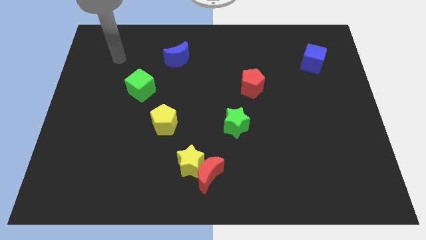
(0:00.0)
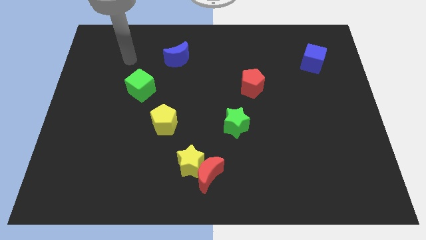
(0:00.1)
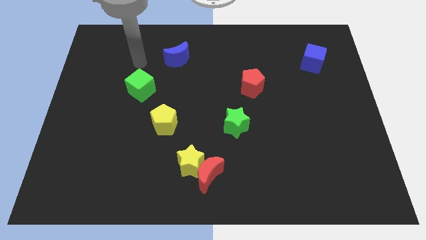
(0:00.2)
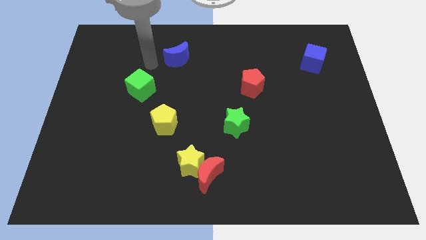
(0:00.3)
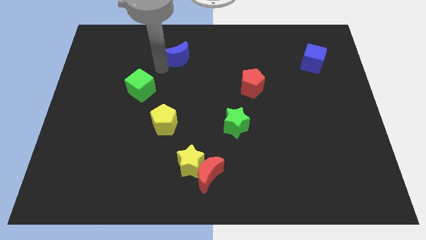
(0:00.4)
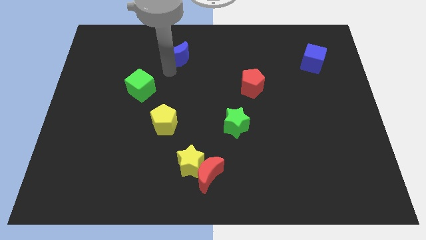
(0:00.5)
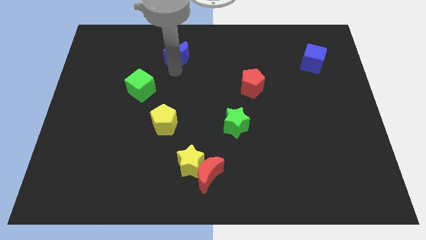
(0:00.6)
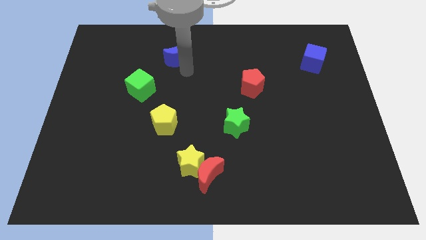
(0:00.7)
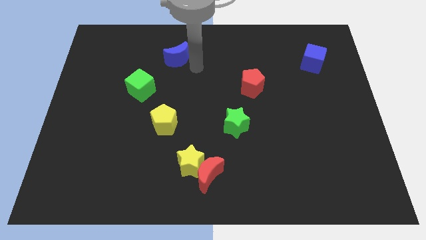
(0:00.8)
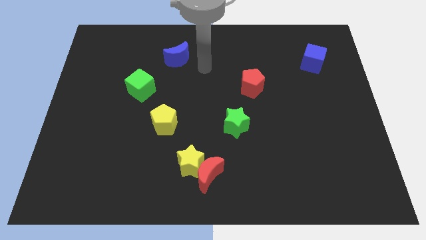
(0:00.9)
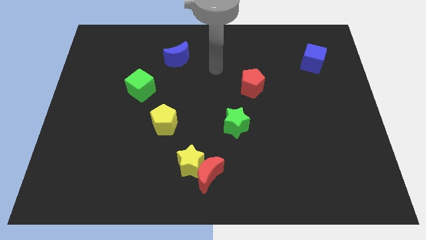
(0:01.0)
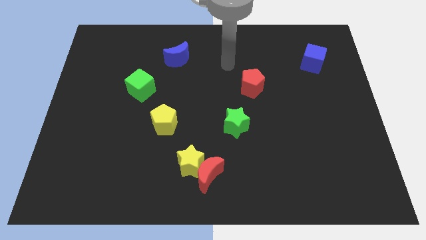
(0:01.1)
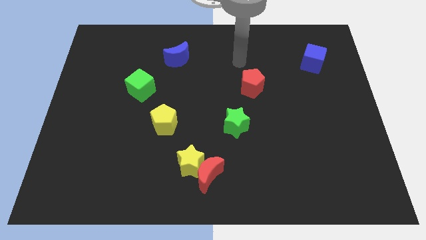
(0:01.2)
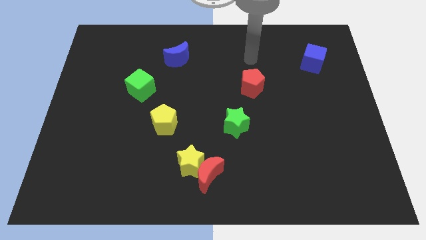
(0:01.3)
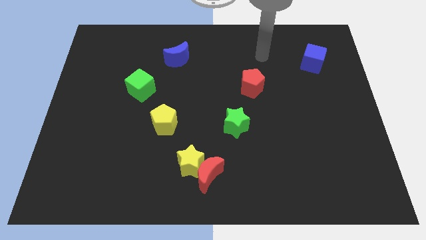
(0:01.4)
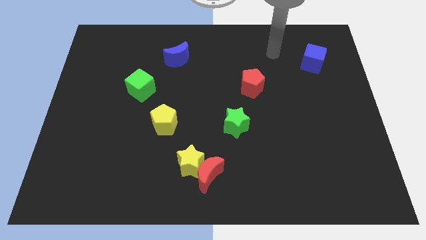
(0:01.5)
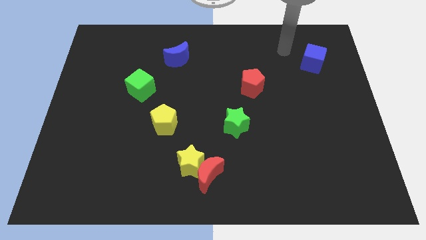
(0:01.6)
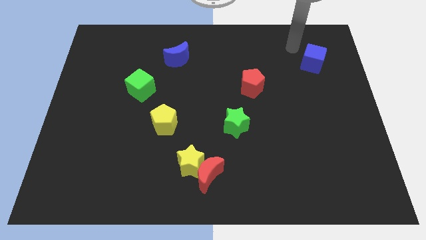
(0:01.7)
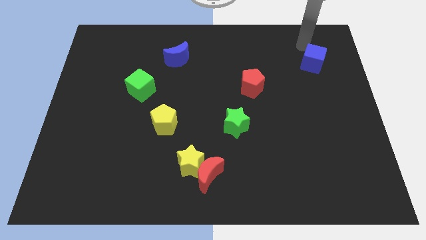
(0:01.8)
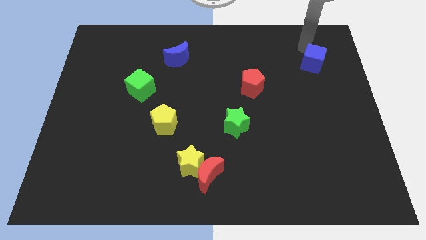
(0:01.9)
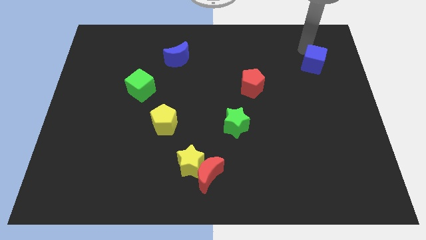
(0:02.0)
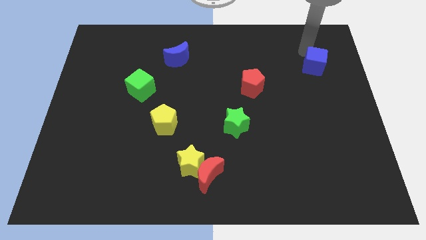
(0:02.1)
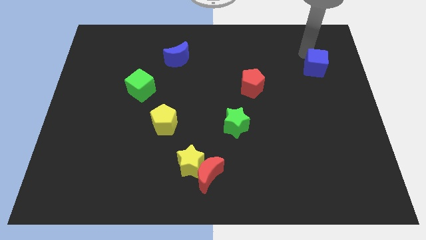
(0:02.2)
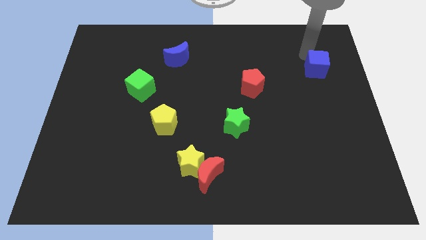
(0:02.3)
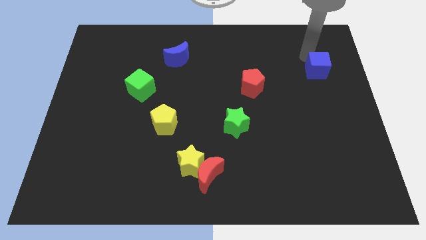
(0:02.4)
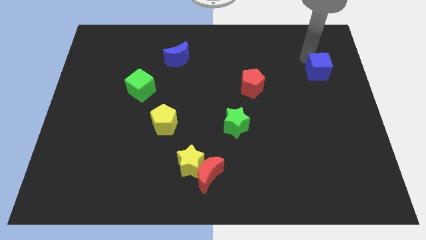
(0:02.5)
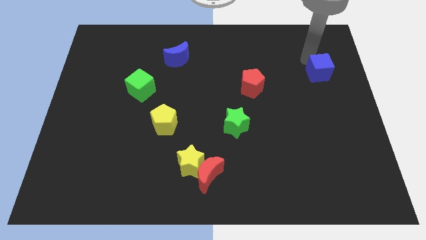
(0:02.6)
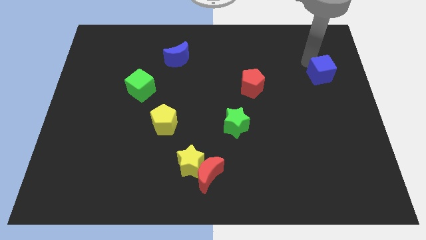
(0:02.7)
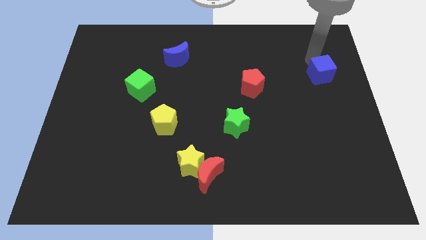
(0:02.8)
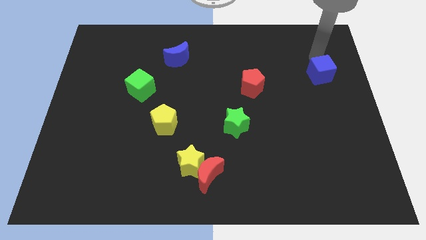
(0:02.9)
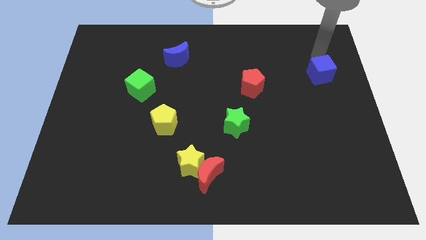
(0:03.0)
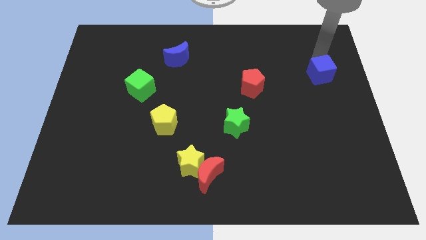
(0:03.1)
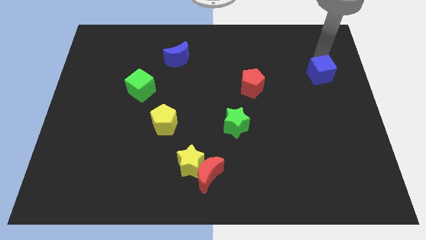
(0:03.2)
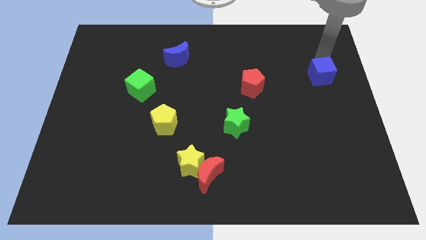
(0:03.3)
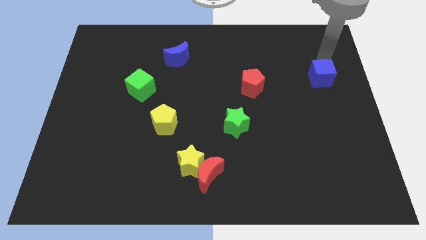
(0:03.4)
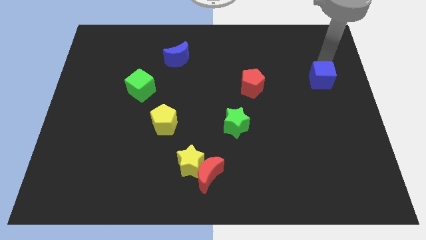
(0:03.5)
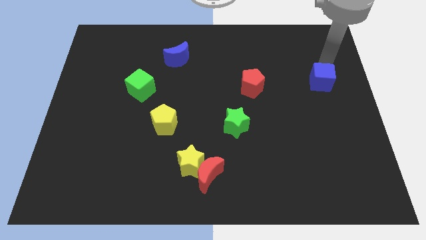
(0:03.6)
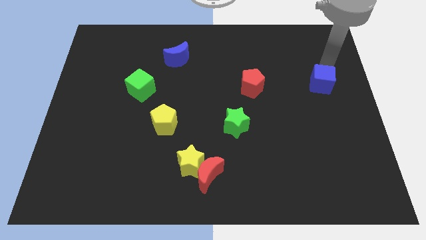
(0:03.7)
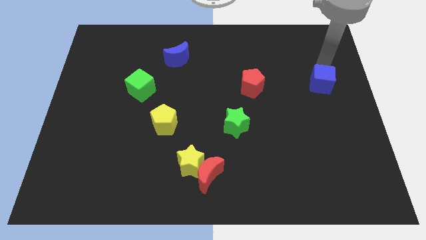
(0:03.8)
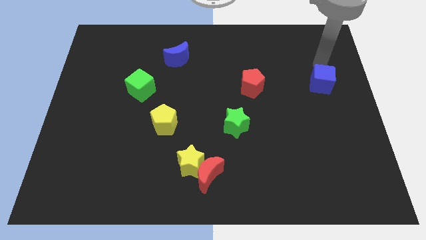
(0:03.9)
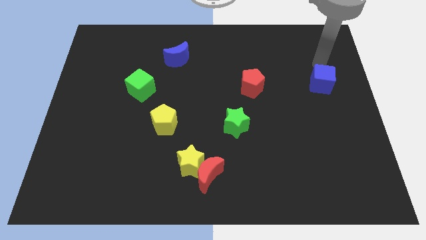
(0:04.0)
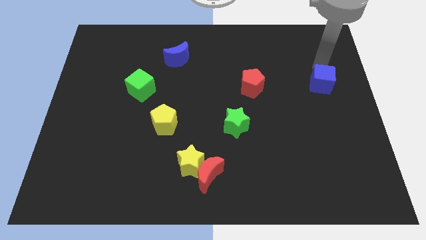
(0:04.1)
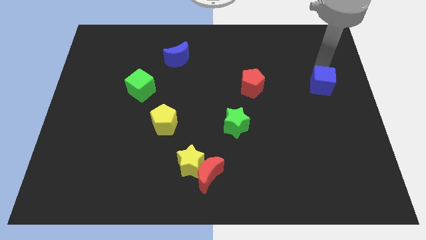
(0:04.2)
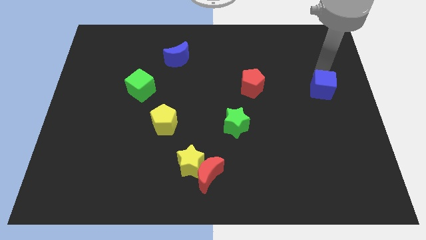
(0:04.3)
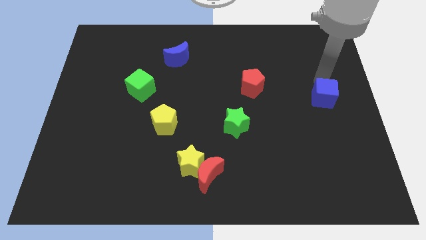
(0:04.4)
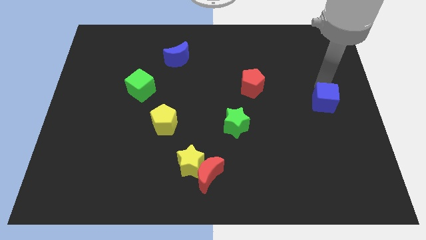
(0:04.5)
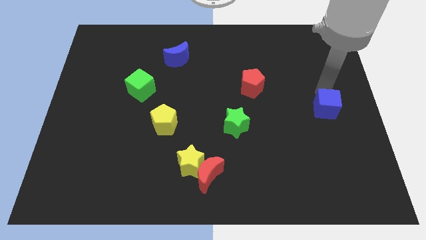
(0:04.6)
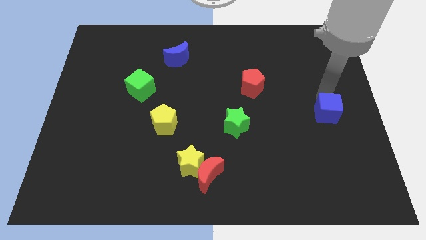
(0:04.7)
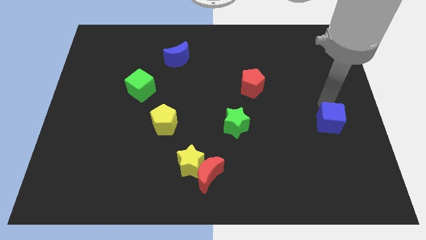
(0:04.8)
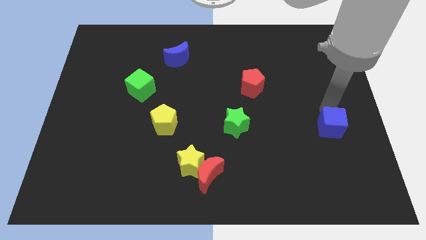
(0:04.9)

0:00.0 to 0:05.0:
move the blue cube down

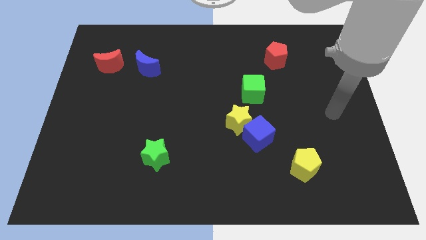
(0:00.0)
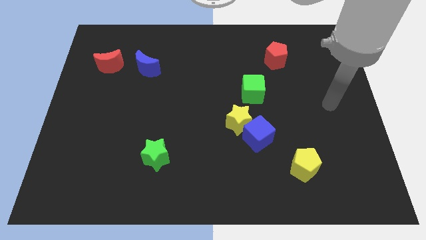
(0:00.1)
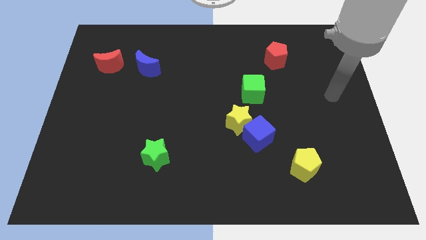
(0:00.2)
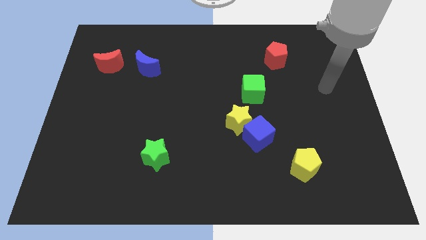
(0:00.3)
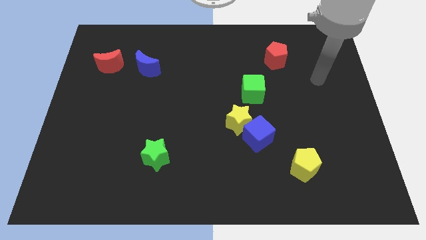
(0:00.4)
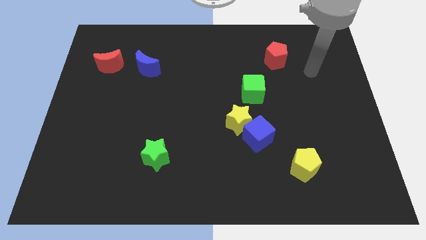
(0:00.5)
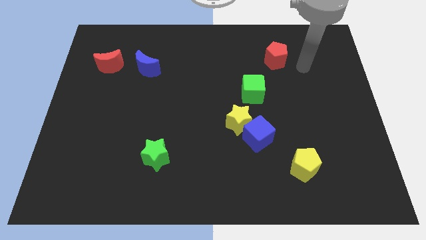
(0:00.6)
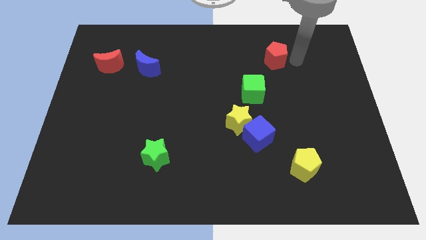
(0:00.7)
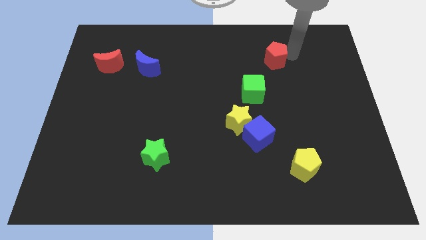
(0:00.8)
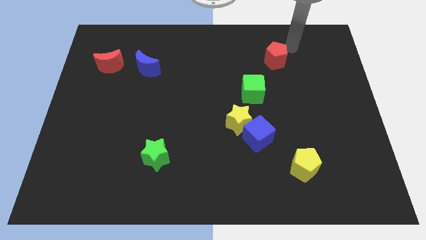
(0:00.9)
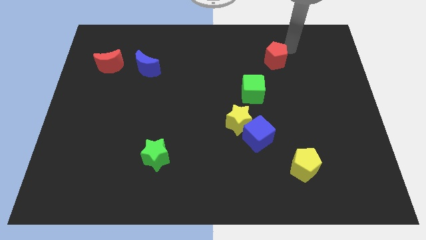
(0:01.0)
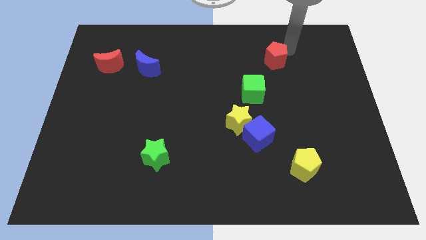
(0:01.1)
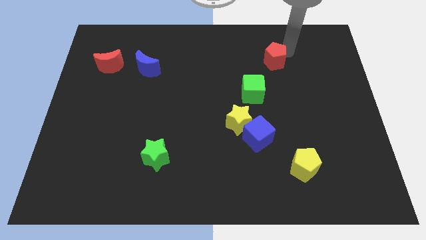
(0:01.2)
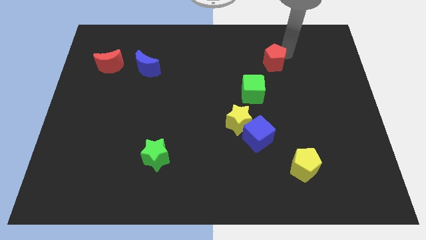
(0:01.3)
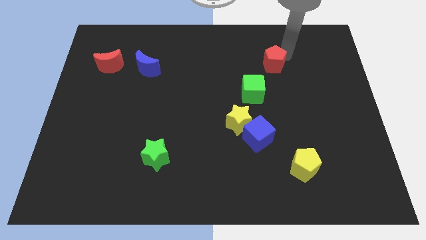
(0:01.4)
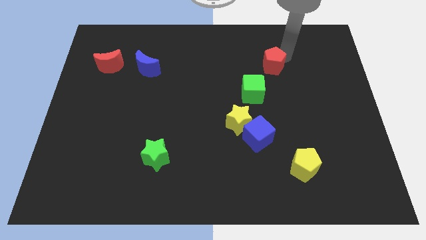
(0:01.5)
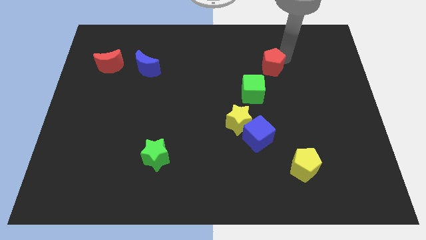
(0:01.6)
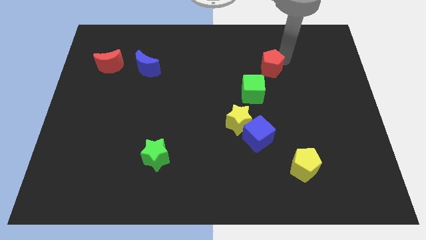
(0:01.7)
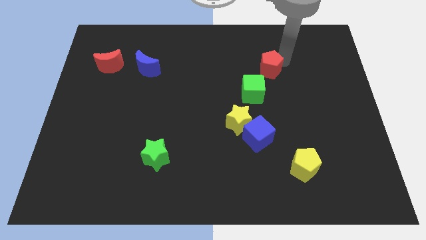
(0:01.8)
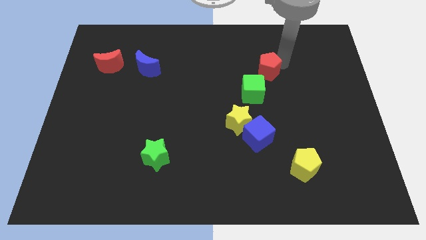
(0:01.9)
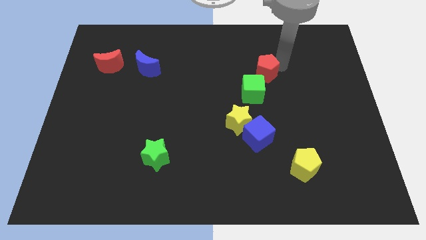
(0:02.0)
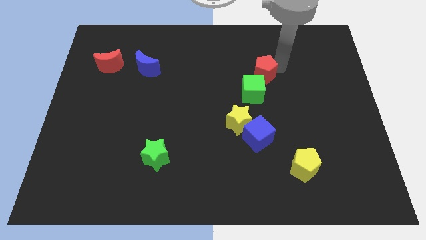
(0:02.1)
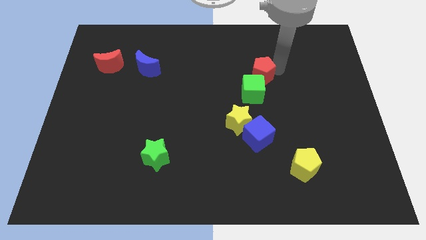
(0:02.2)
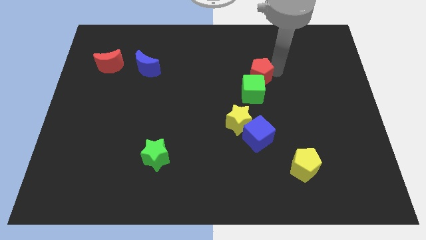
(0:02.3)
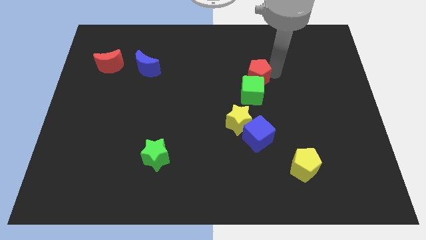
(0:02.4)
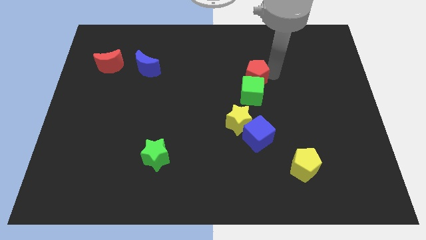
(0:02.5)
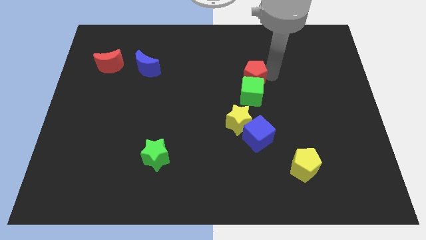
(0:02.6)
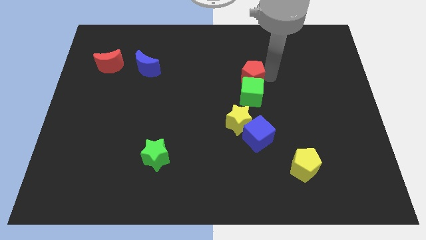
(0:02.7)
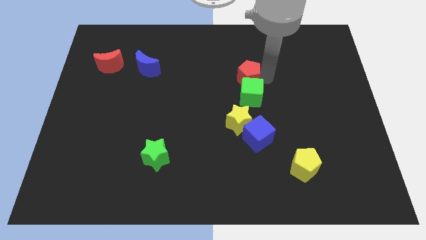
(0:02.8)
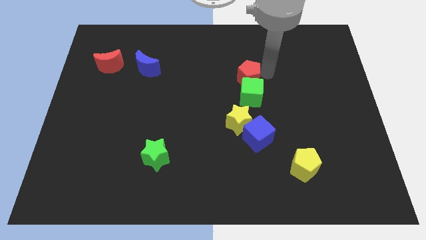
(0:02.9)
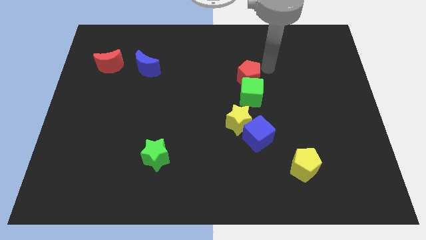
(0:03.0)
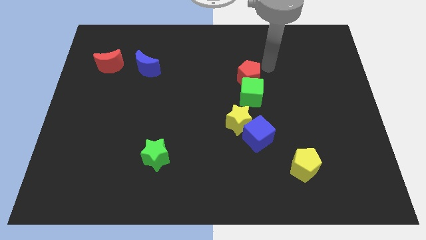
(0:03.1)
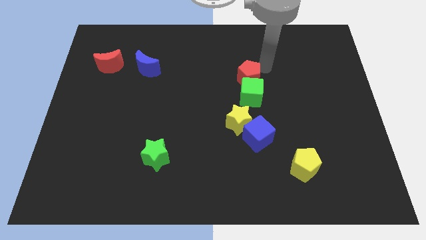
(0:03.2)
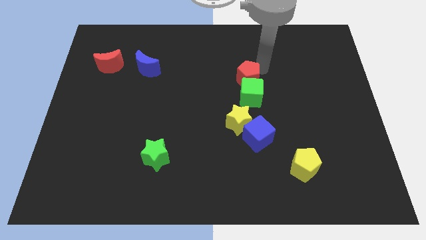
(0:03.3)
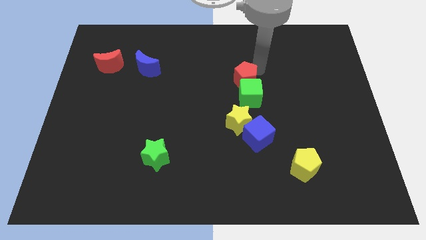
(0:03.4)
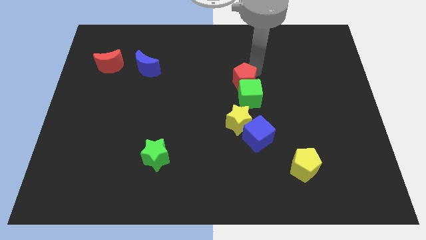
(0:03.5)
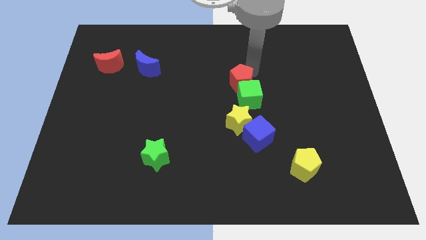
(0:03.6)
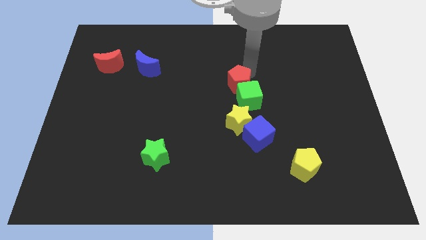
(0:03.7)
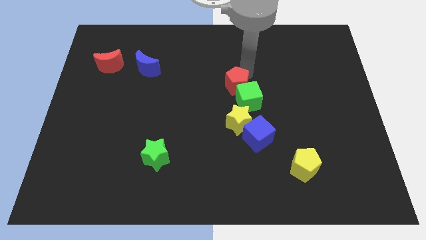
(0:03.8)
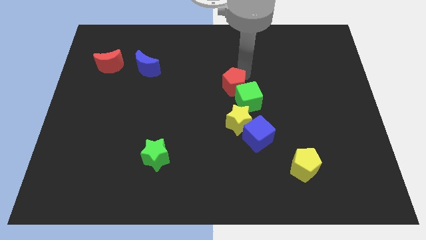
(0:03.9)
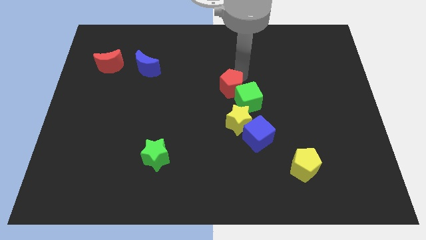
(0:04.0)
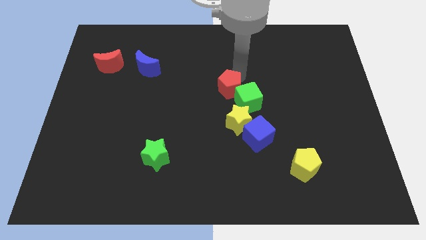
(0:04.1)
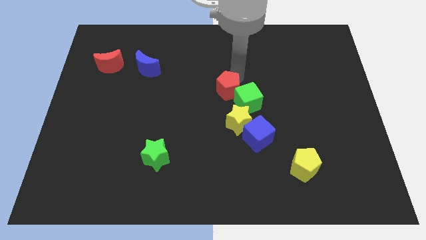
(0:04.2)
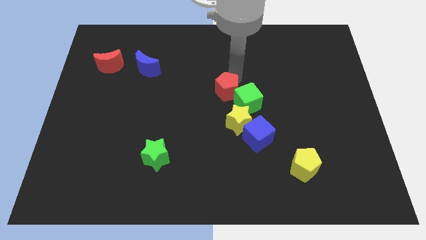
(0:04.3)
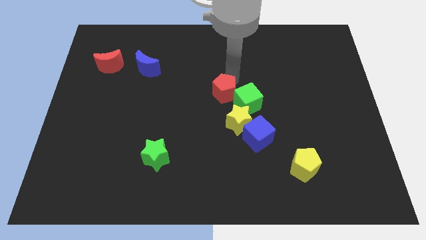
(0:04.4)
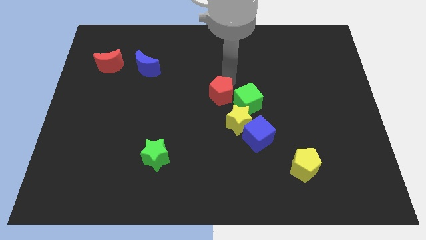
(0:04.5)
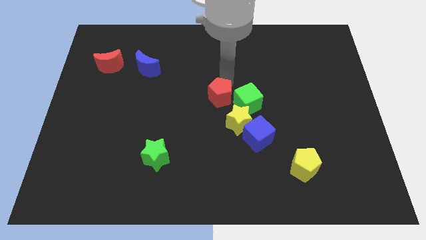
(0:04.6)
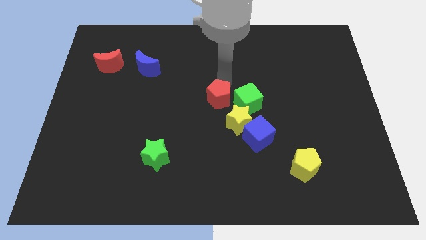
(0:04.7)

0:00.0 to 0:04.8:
slide the red pentagon diagonally downwards and left
